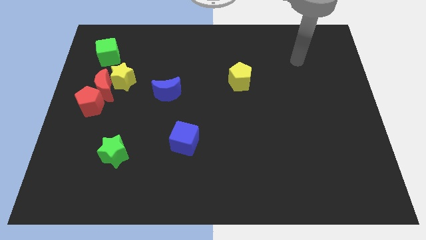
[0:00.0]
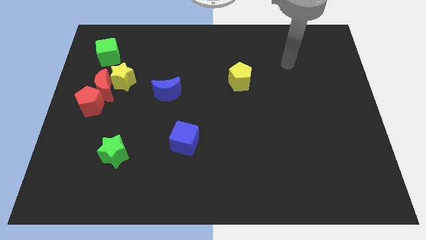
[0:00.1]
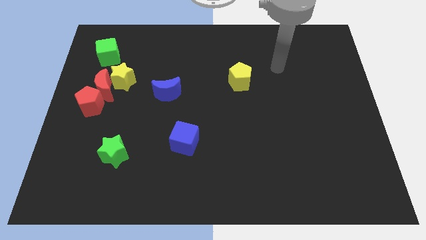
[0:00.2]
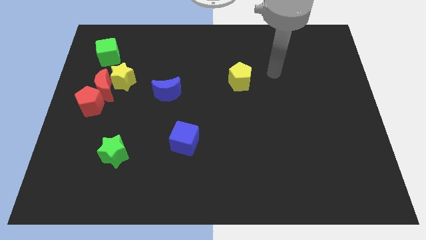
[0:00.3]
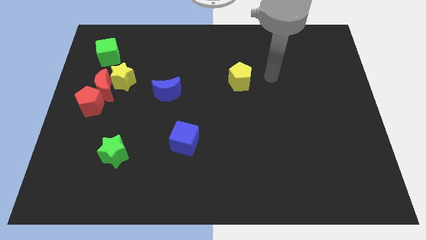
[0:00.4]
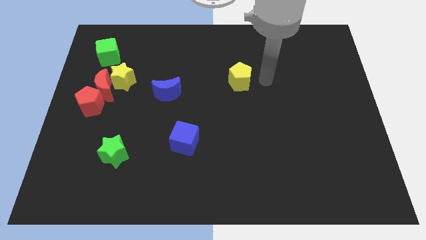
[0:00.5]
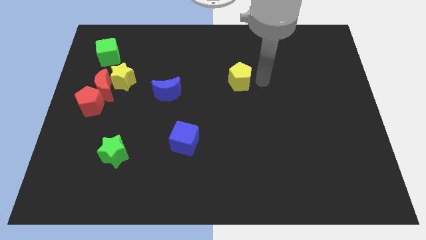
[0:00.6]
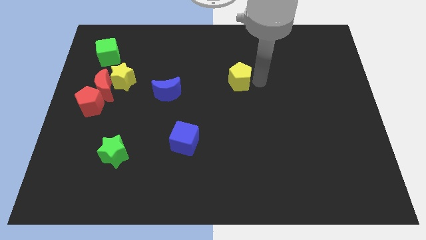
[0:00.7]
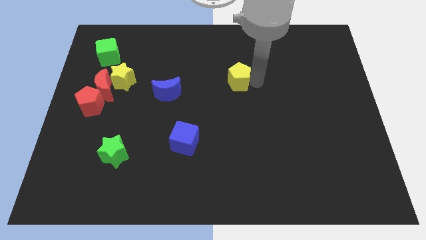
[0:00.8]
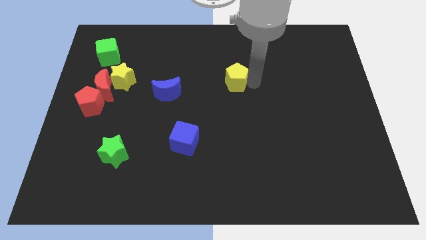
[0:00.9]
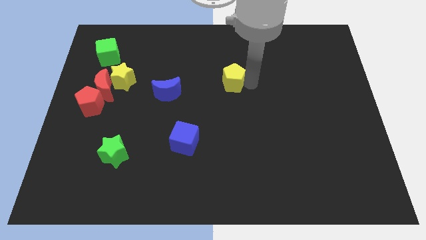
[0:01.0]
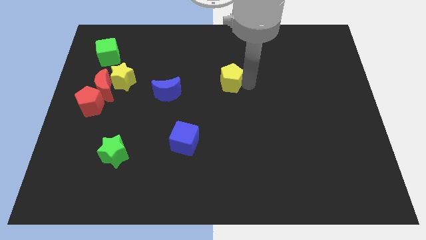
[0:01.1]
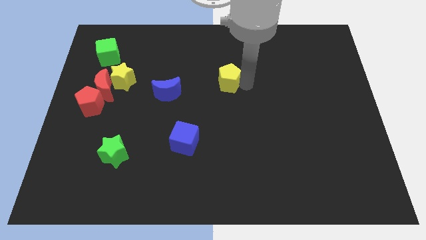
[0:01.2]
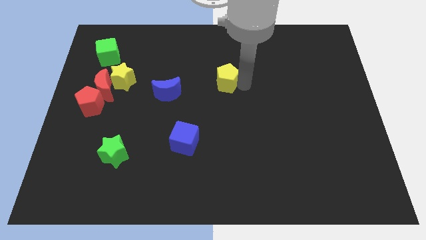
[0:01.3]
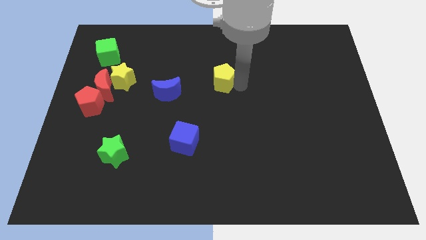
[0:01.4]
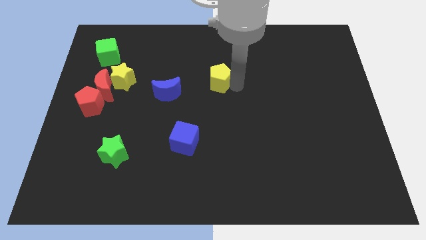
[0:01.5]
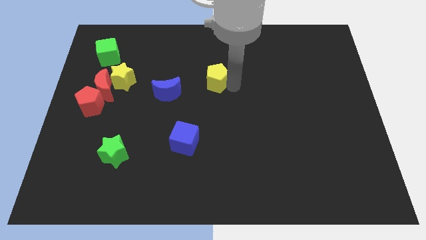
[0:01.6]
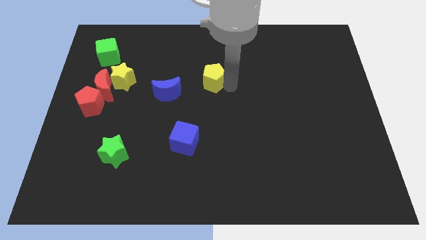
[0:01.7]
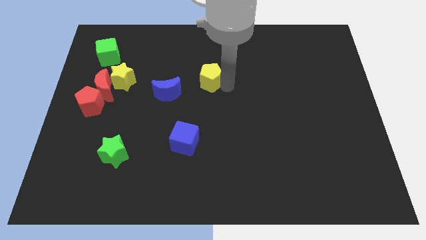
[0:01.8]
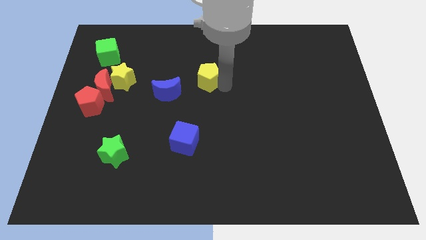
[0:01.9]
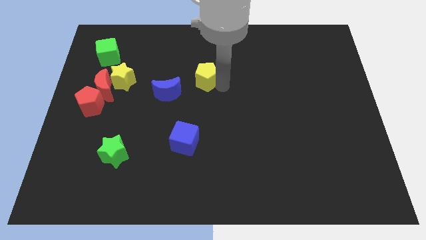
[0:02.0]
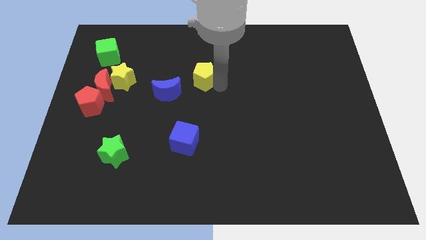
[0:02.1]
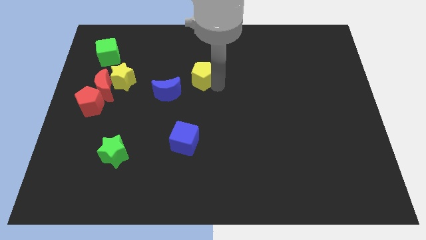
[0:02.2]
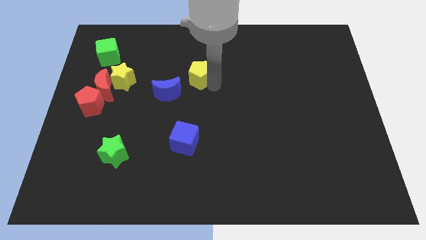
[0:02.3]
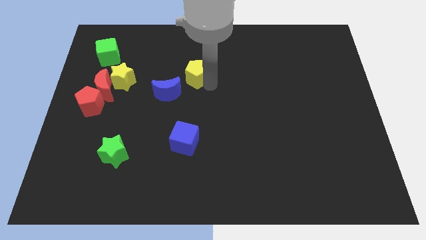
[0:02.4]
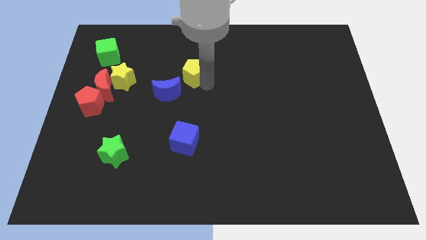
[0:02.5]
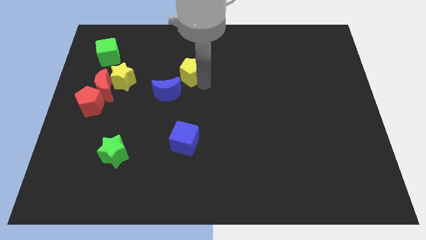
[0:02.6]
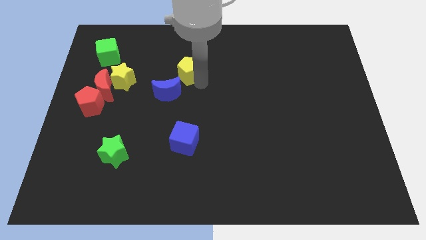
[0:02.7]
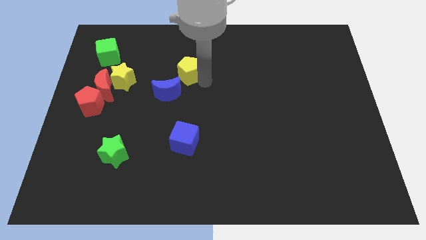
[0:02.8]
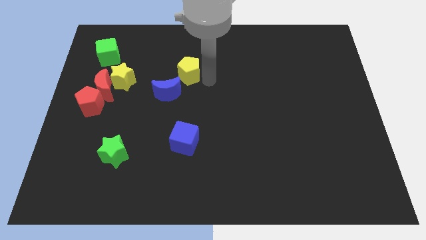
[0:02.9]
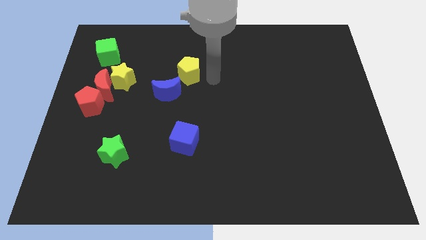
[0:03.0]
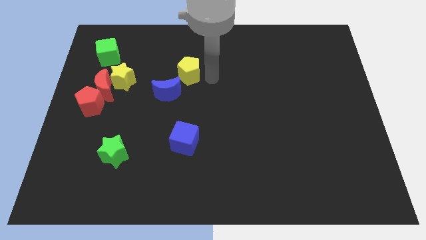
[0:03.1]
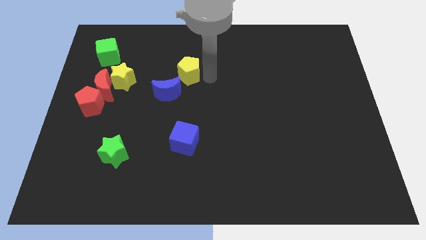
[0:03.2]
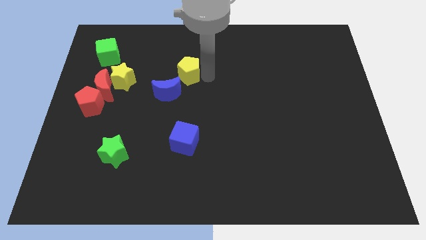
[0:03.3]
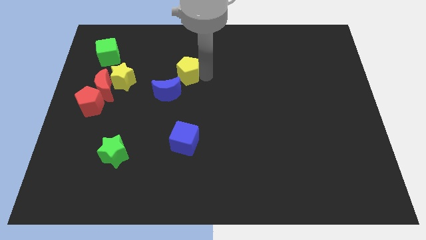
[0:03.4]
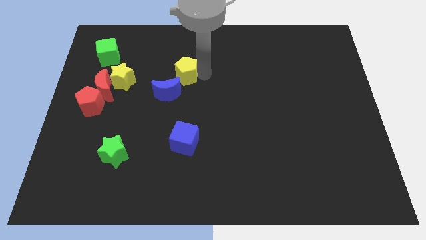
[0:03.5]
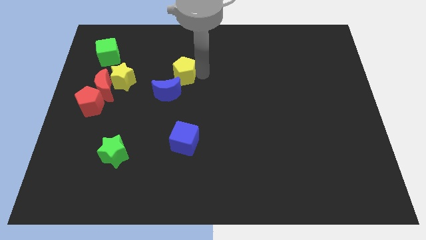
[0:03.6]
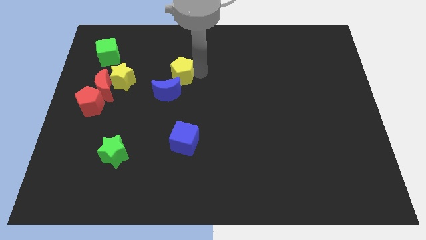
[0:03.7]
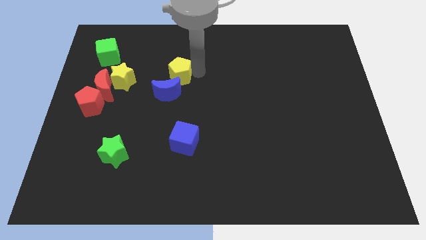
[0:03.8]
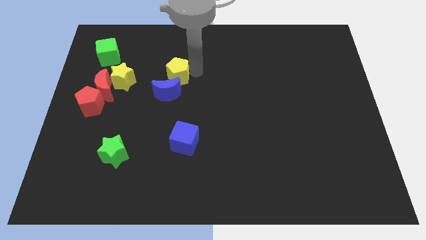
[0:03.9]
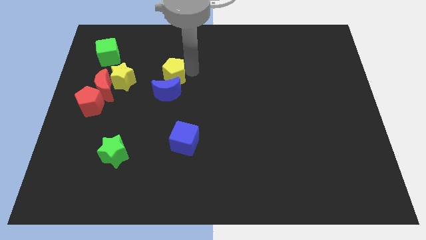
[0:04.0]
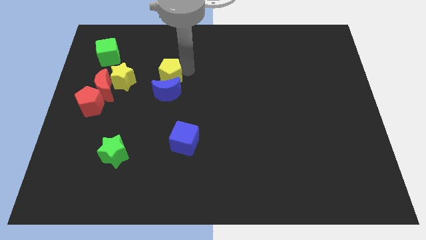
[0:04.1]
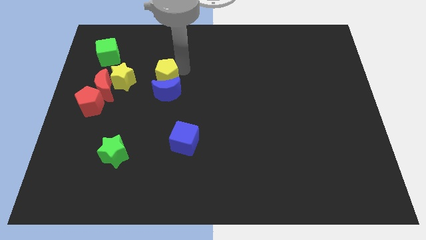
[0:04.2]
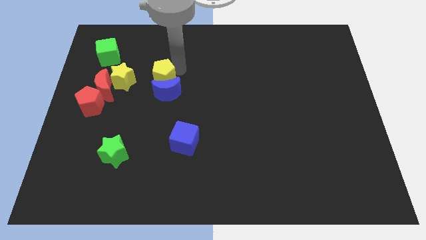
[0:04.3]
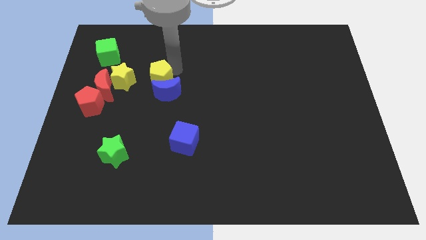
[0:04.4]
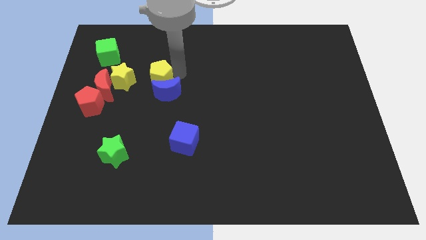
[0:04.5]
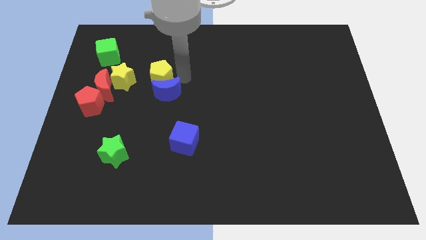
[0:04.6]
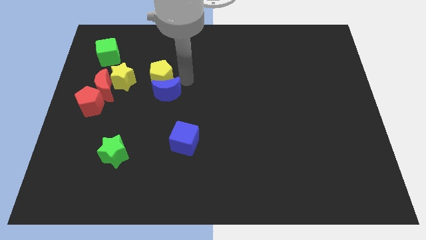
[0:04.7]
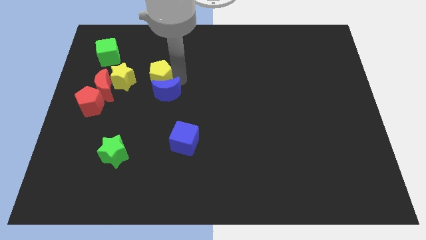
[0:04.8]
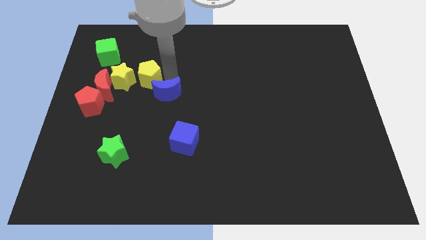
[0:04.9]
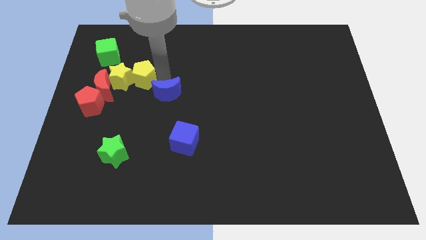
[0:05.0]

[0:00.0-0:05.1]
move the yellow pentagon to the top right side of the red moon
